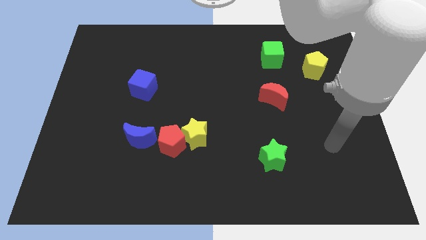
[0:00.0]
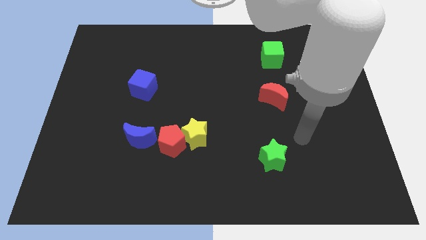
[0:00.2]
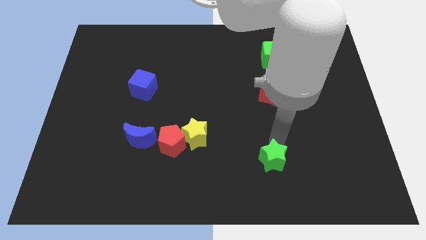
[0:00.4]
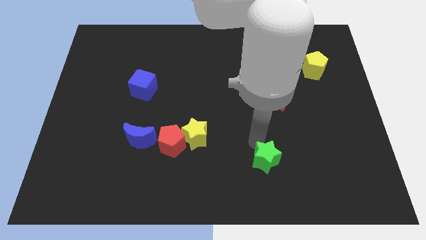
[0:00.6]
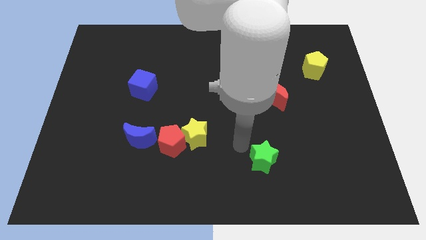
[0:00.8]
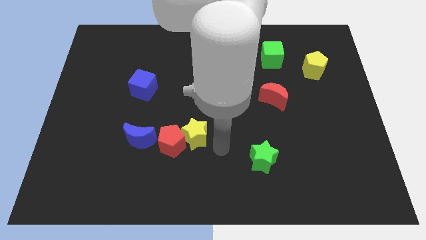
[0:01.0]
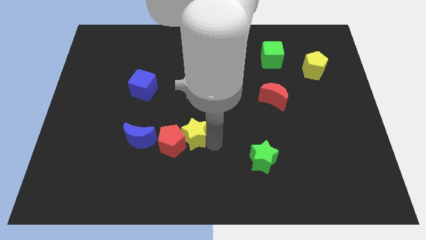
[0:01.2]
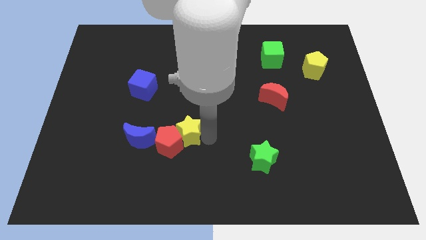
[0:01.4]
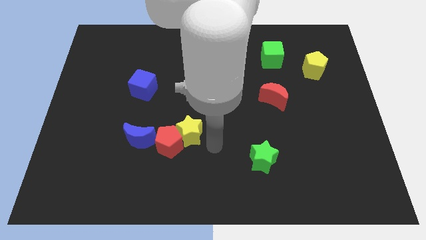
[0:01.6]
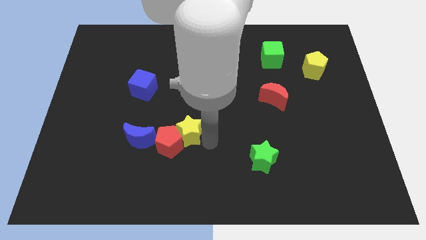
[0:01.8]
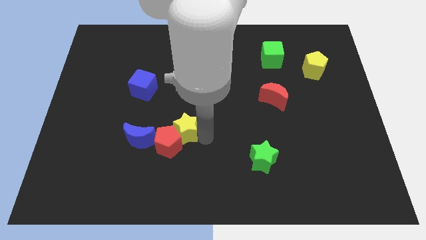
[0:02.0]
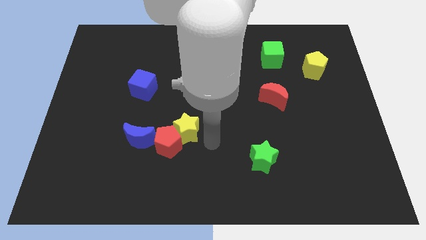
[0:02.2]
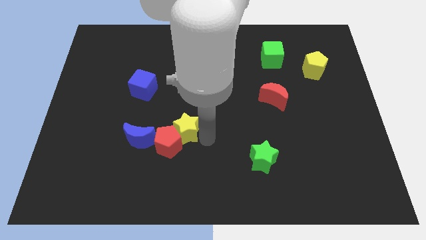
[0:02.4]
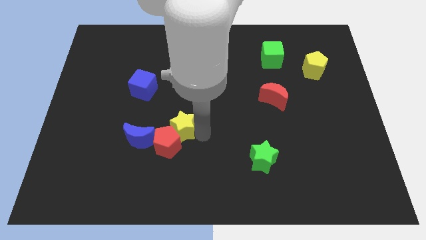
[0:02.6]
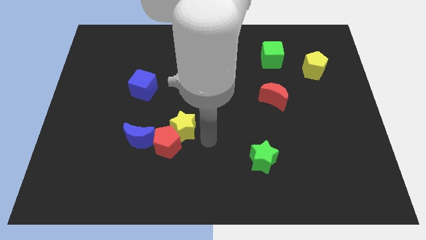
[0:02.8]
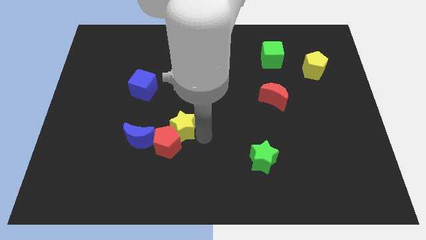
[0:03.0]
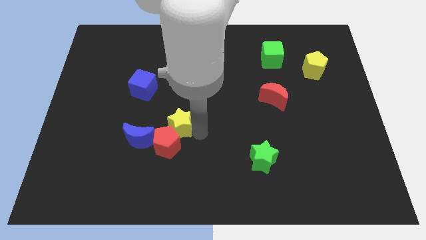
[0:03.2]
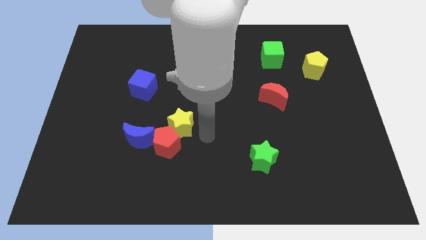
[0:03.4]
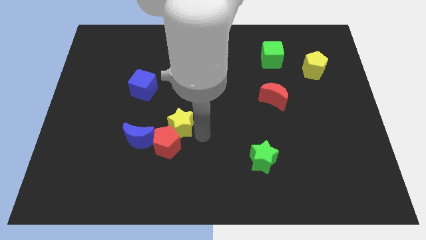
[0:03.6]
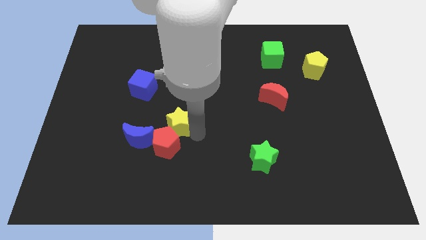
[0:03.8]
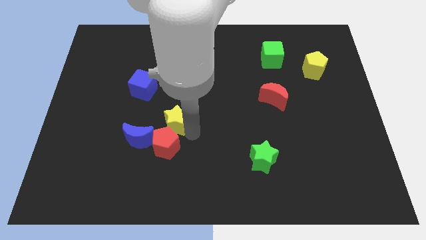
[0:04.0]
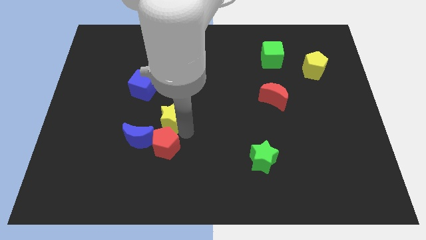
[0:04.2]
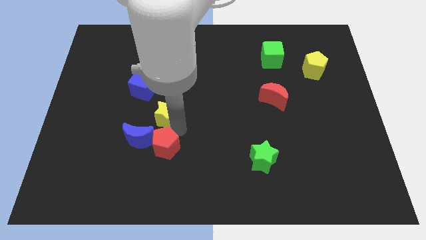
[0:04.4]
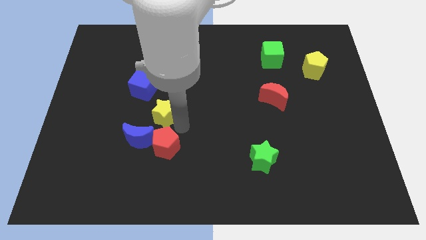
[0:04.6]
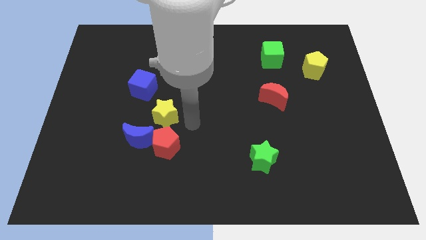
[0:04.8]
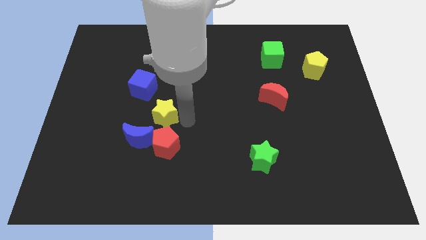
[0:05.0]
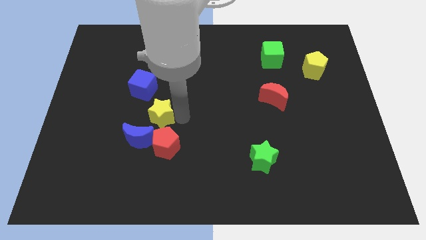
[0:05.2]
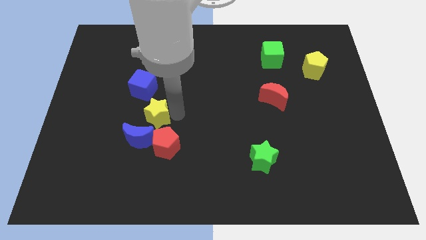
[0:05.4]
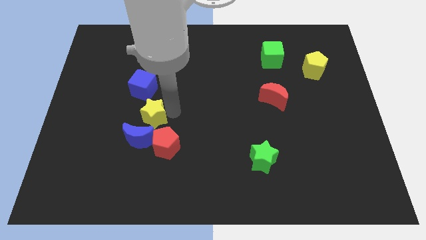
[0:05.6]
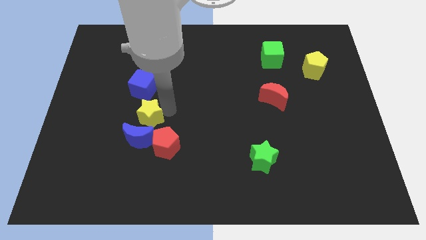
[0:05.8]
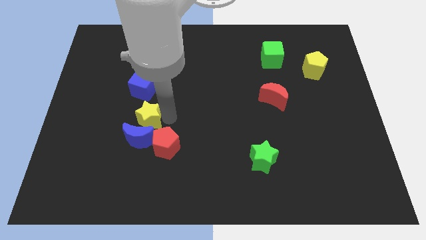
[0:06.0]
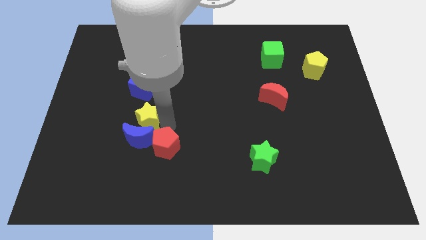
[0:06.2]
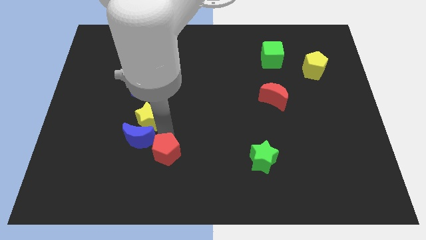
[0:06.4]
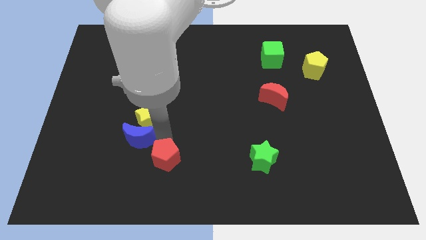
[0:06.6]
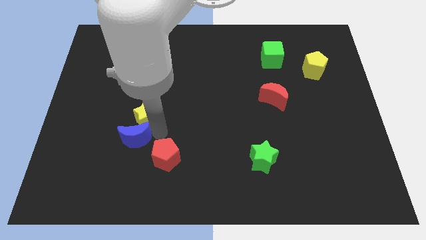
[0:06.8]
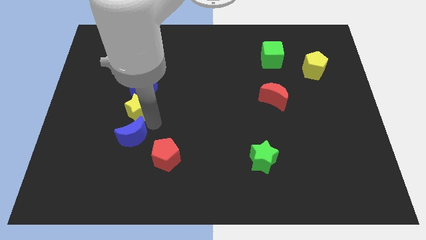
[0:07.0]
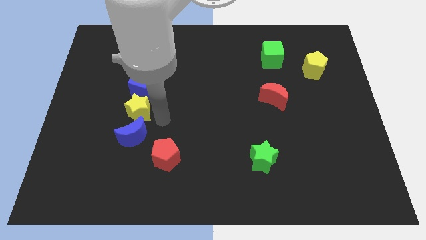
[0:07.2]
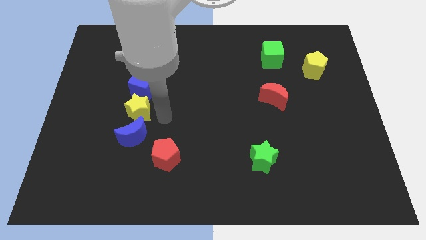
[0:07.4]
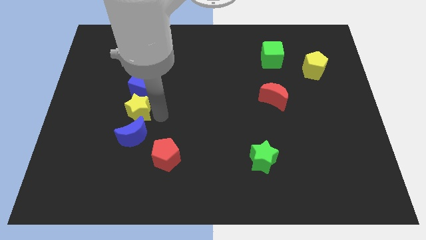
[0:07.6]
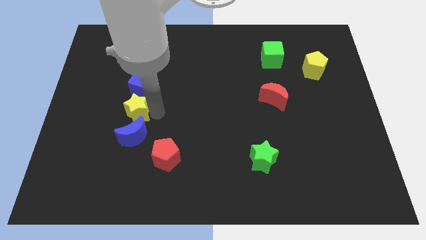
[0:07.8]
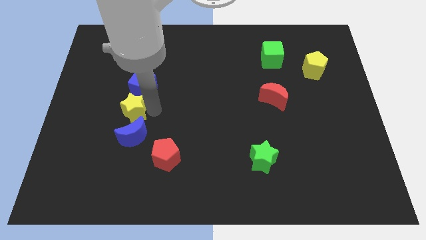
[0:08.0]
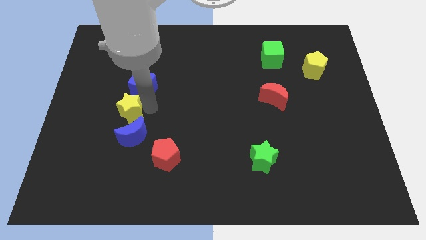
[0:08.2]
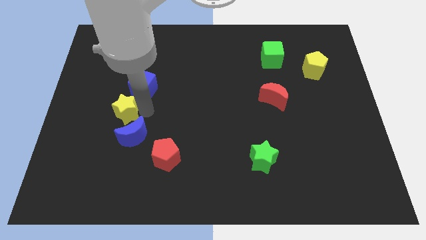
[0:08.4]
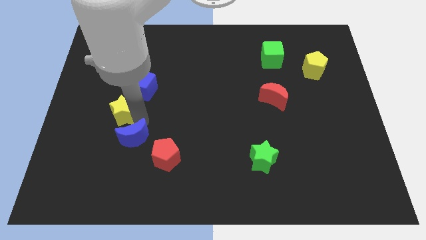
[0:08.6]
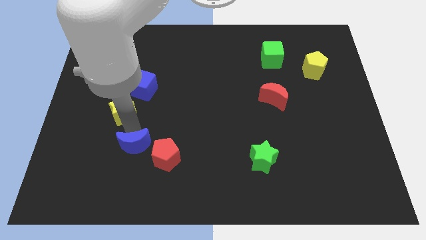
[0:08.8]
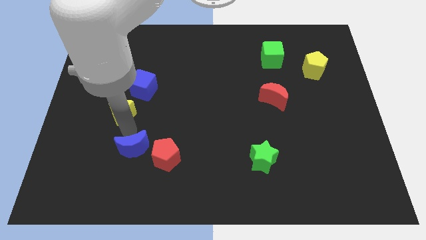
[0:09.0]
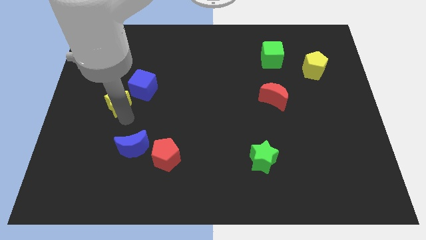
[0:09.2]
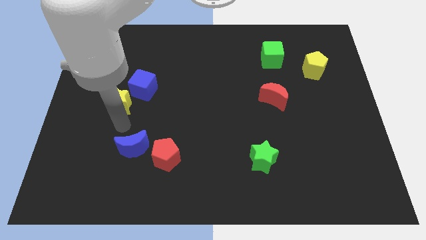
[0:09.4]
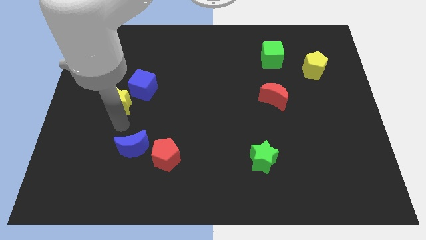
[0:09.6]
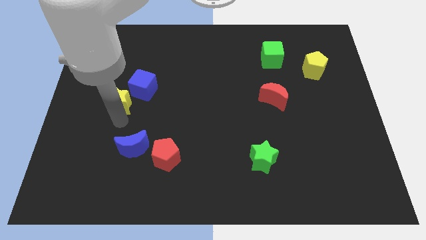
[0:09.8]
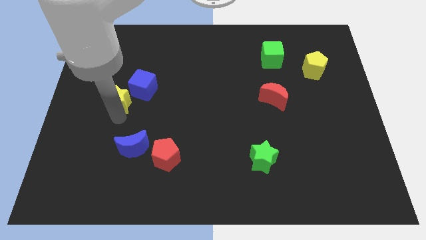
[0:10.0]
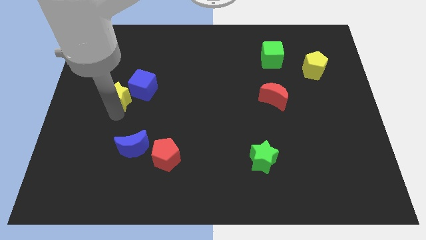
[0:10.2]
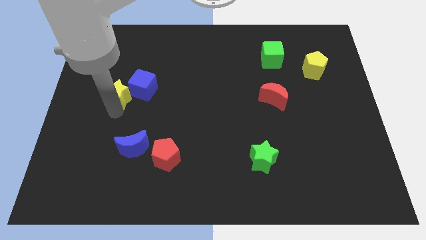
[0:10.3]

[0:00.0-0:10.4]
slide the yellow star diagonally up and to the left

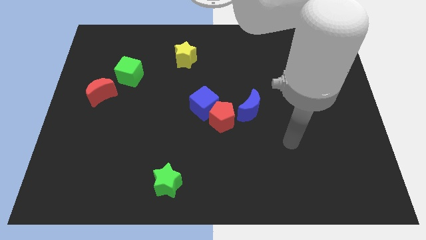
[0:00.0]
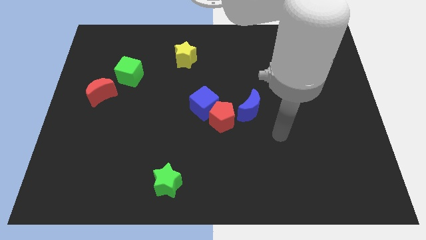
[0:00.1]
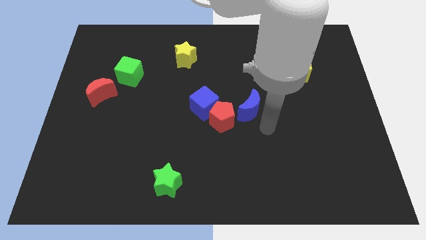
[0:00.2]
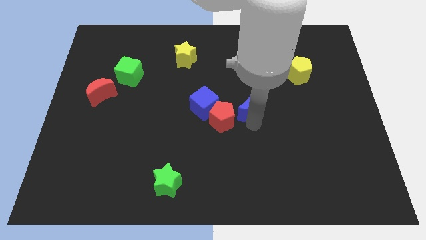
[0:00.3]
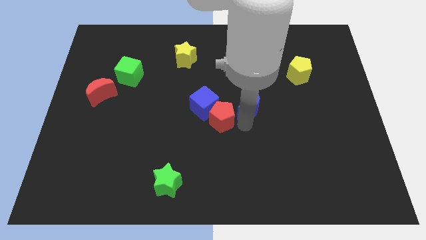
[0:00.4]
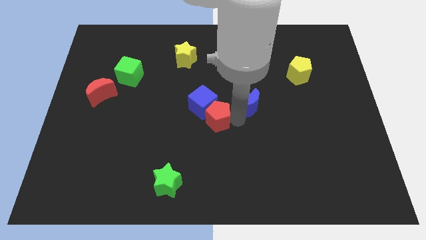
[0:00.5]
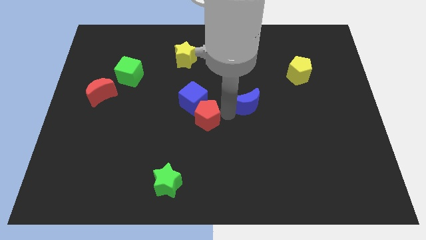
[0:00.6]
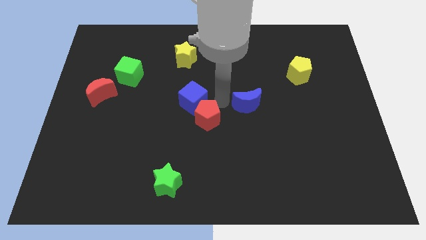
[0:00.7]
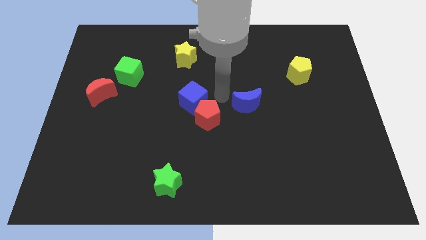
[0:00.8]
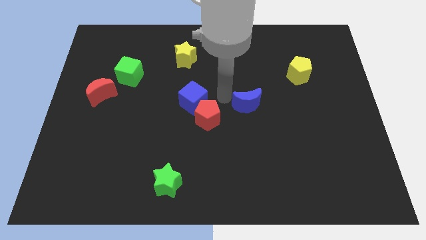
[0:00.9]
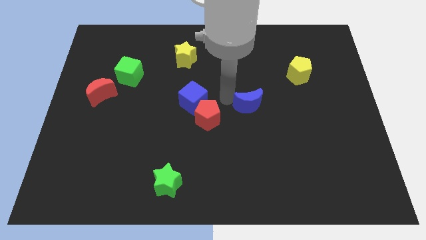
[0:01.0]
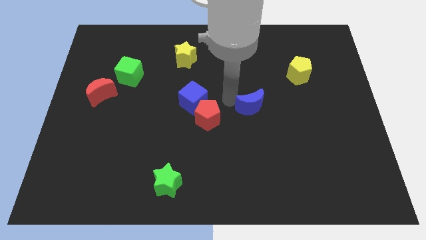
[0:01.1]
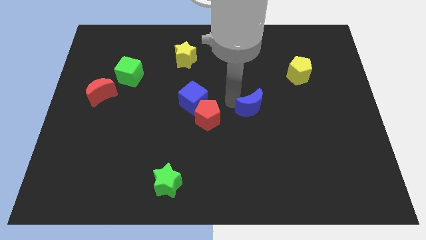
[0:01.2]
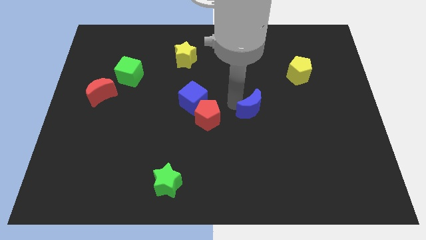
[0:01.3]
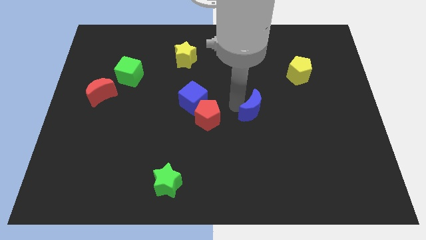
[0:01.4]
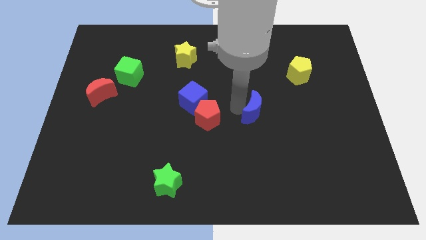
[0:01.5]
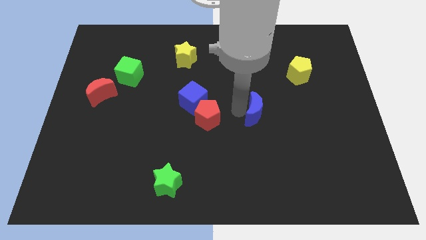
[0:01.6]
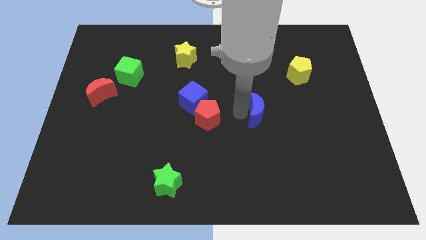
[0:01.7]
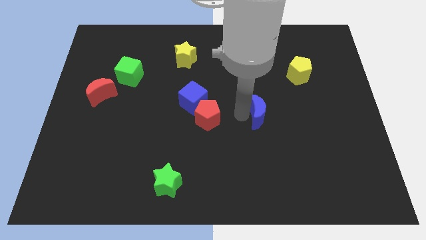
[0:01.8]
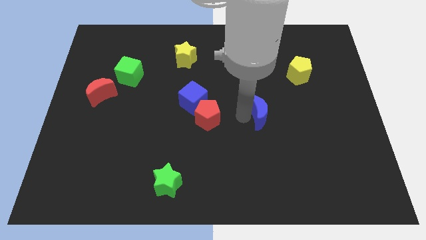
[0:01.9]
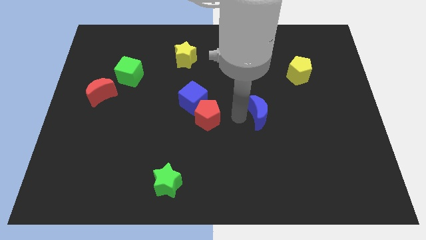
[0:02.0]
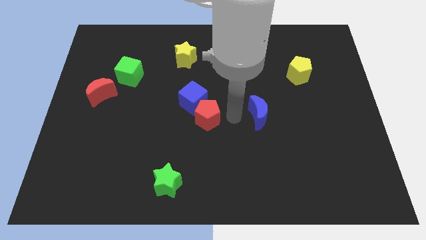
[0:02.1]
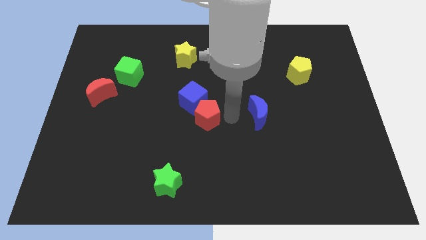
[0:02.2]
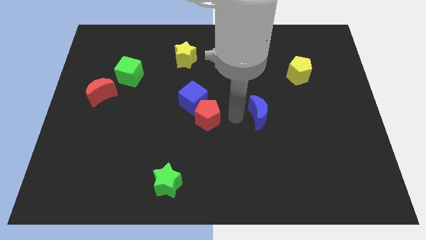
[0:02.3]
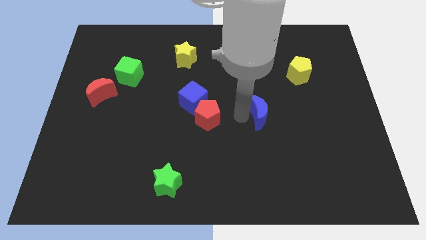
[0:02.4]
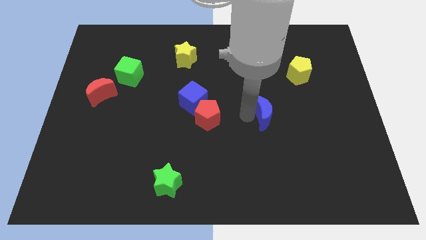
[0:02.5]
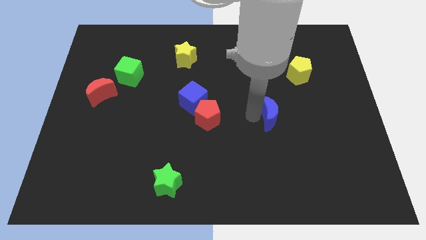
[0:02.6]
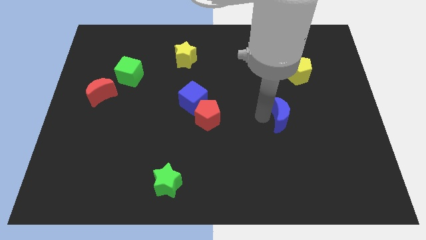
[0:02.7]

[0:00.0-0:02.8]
slightly slide the blue moon right
